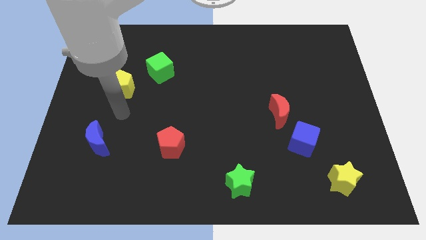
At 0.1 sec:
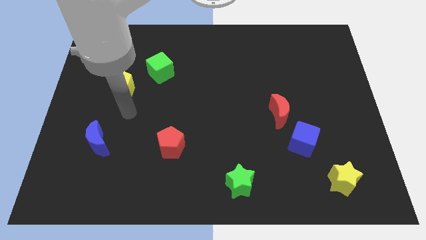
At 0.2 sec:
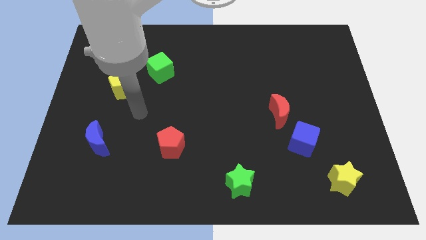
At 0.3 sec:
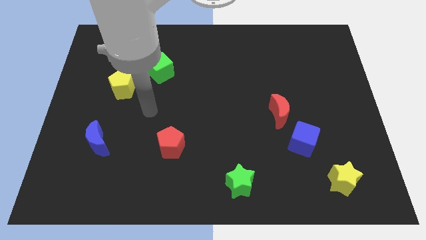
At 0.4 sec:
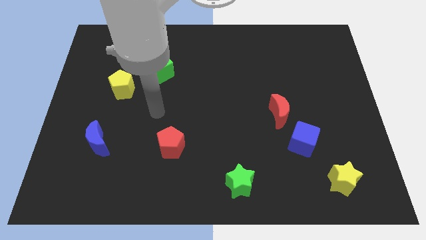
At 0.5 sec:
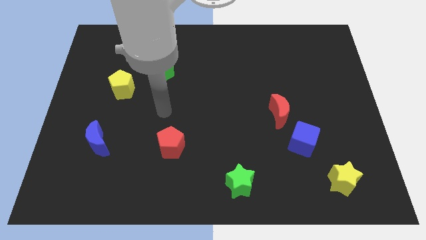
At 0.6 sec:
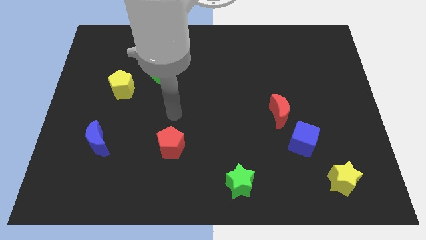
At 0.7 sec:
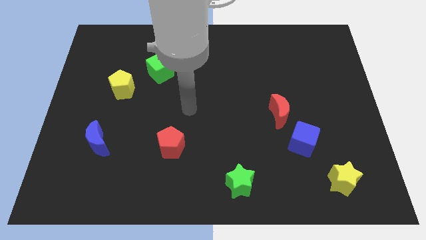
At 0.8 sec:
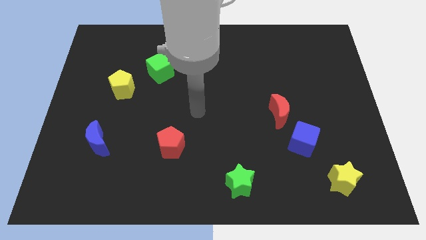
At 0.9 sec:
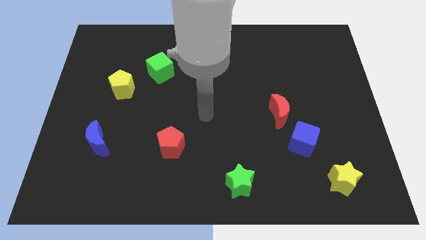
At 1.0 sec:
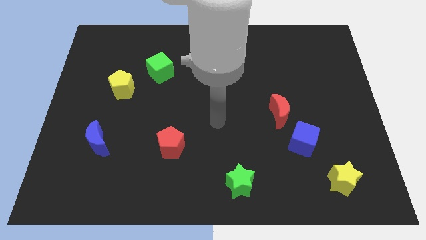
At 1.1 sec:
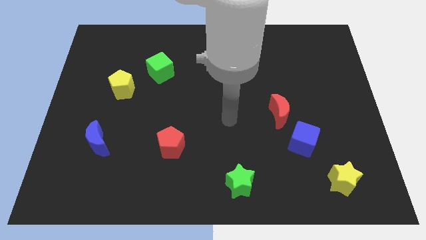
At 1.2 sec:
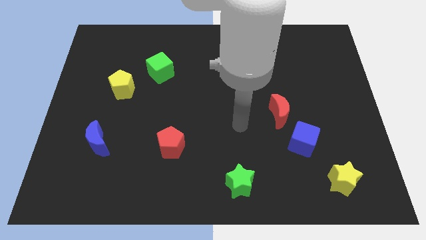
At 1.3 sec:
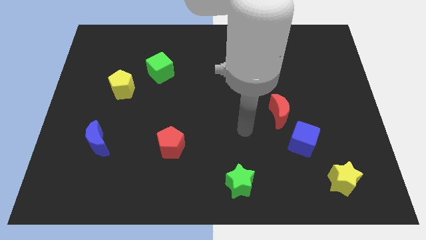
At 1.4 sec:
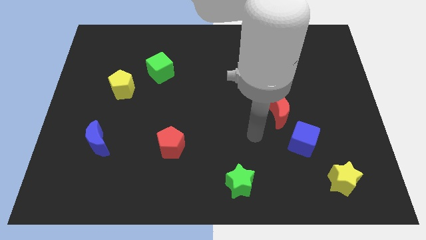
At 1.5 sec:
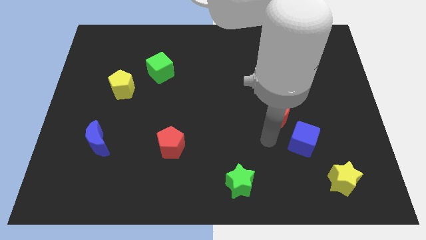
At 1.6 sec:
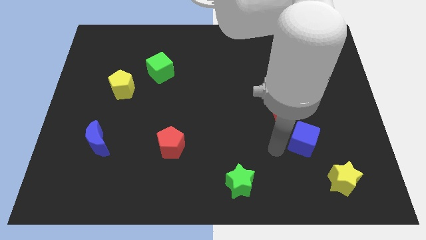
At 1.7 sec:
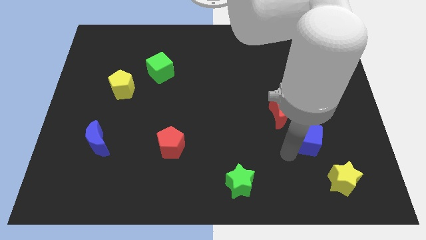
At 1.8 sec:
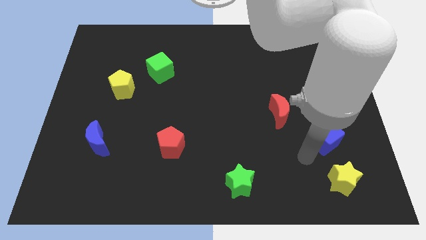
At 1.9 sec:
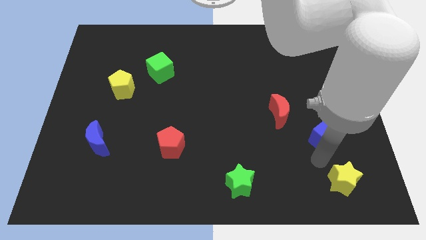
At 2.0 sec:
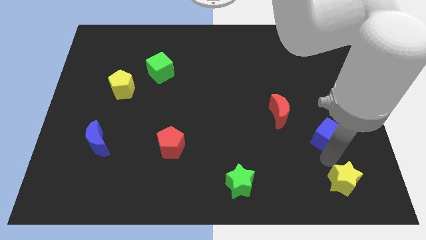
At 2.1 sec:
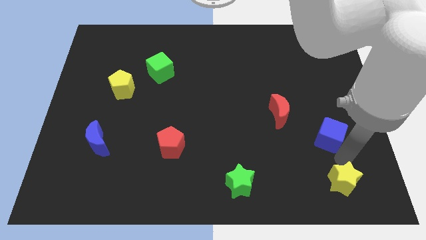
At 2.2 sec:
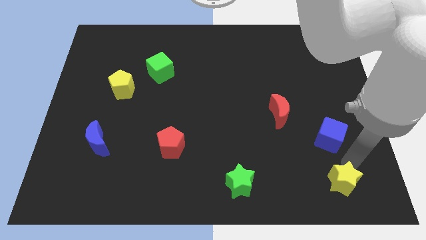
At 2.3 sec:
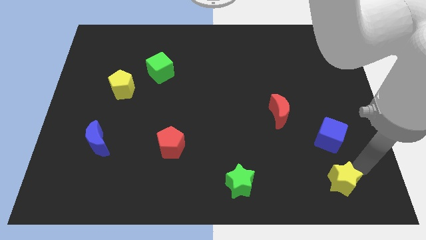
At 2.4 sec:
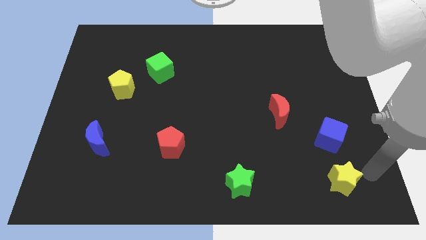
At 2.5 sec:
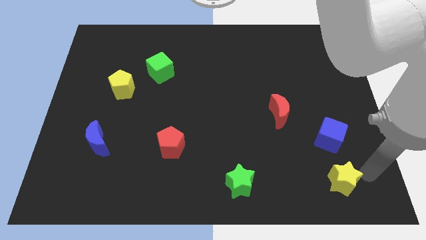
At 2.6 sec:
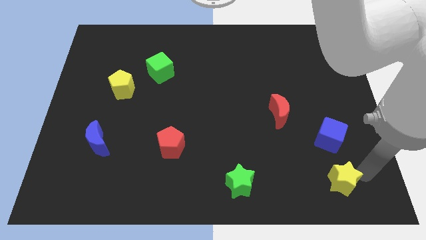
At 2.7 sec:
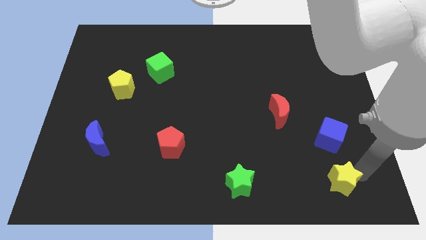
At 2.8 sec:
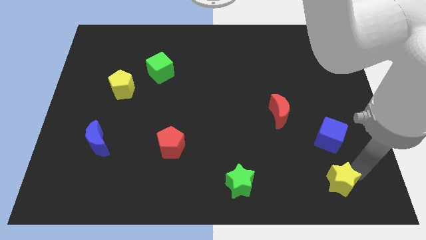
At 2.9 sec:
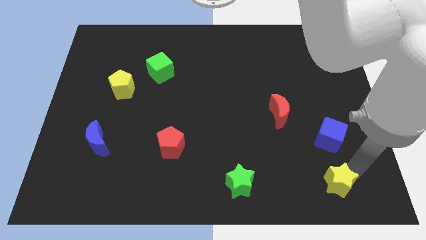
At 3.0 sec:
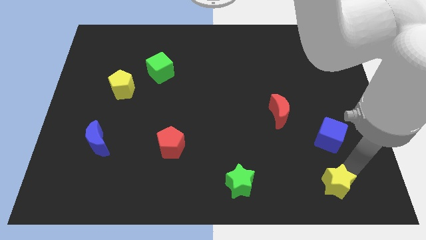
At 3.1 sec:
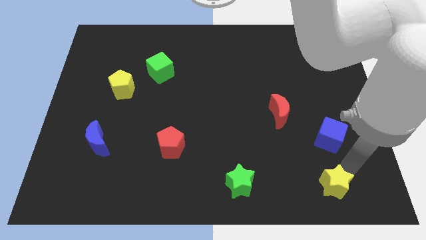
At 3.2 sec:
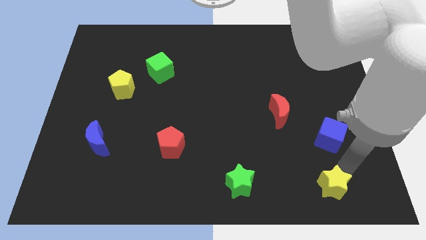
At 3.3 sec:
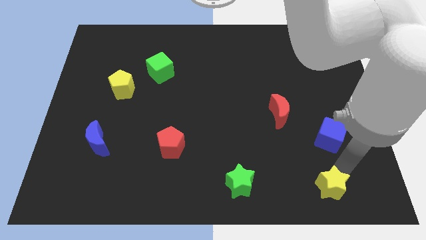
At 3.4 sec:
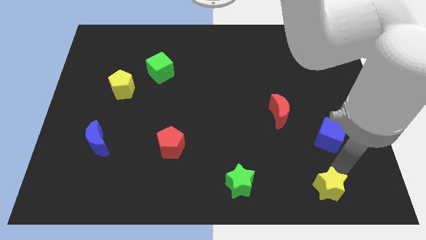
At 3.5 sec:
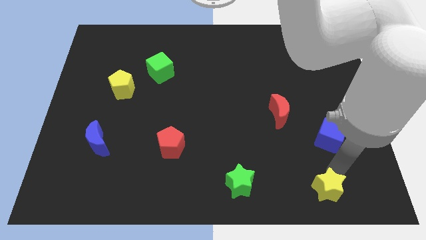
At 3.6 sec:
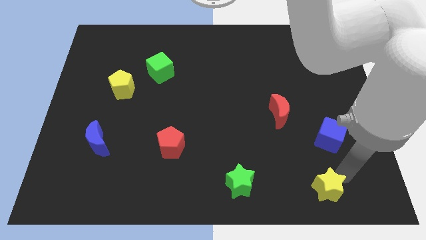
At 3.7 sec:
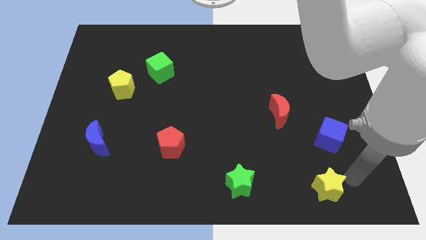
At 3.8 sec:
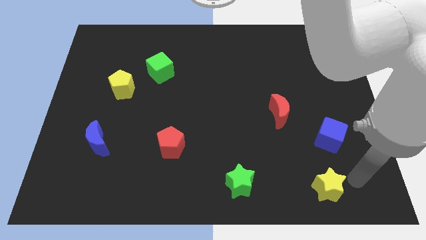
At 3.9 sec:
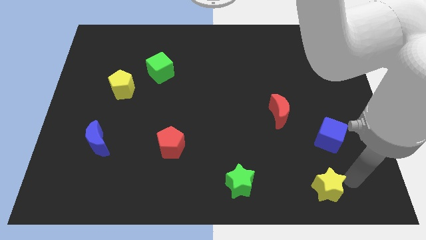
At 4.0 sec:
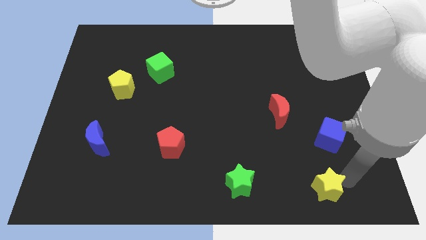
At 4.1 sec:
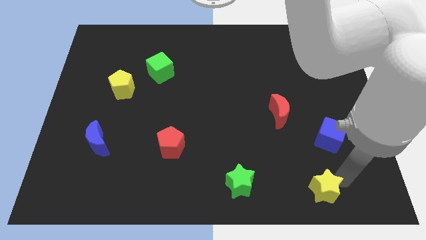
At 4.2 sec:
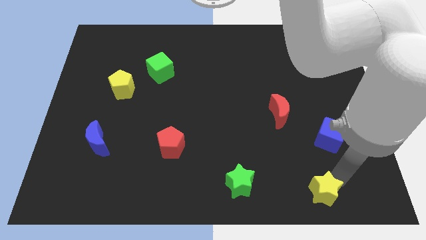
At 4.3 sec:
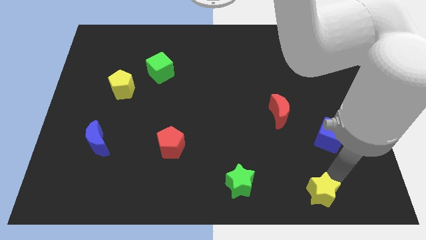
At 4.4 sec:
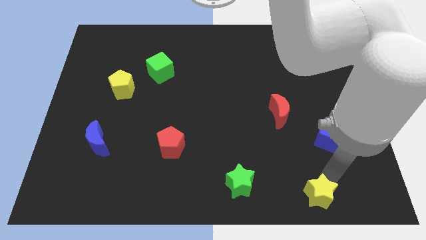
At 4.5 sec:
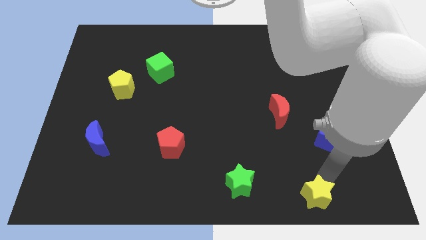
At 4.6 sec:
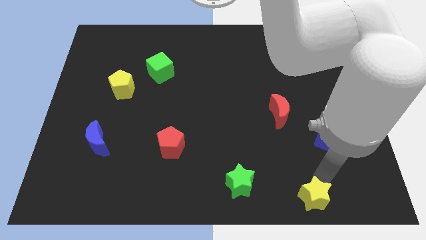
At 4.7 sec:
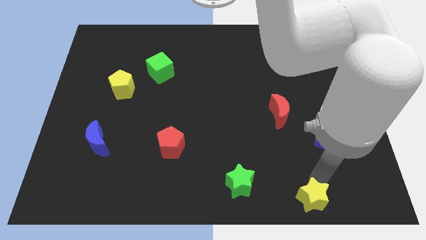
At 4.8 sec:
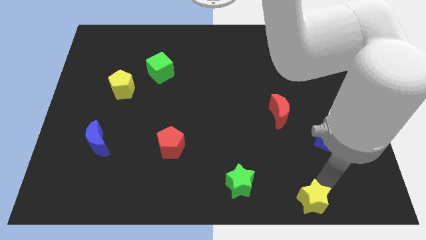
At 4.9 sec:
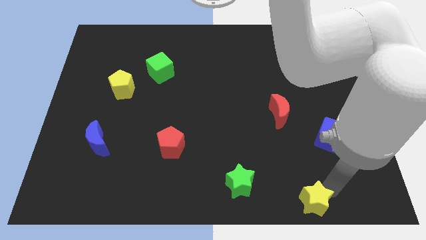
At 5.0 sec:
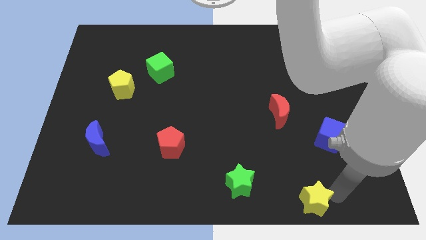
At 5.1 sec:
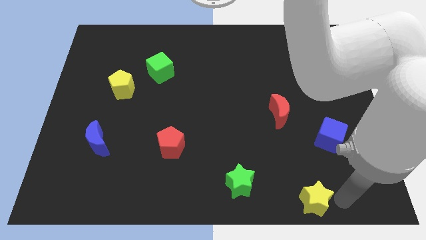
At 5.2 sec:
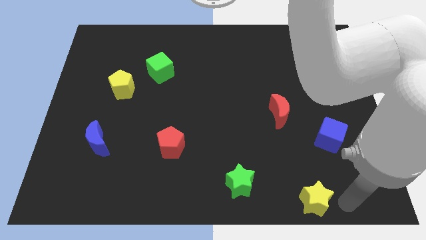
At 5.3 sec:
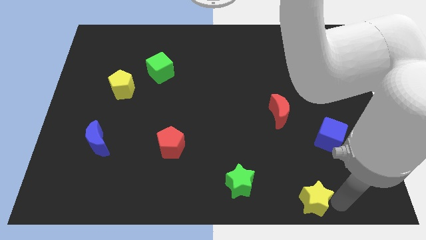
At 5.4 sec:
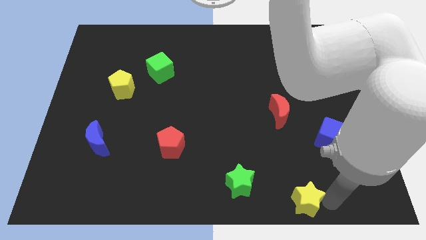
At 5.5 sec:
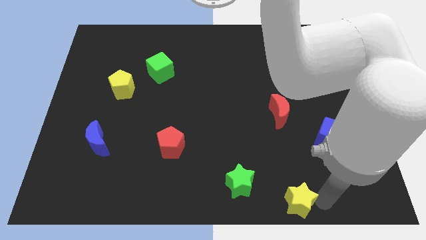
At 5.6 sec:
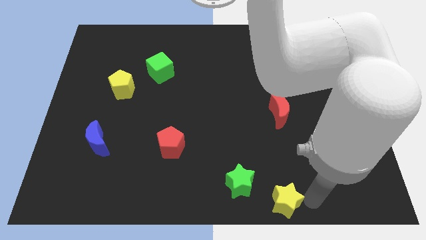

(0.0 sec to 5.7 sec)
move the yellow star to the bottom
